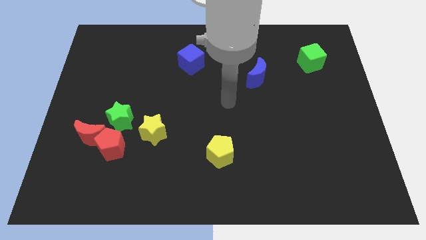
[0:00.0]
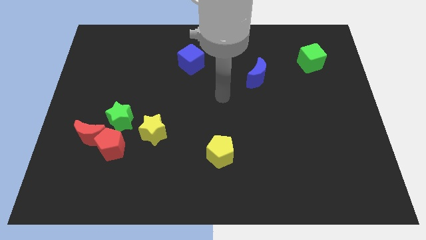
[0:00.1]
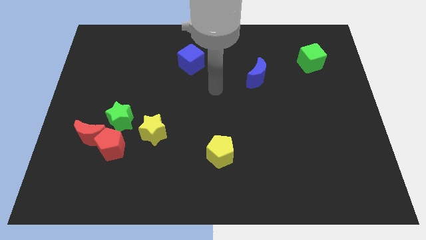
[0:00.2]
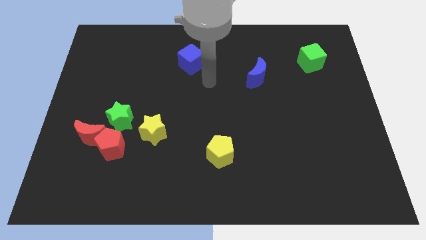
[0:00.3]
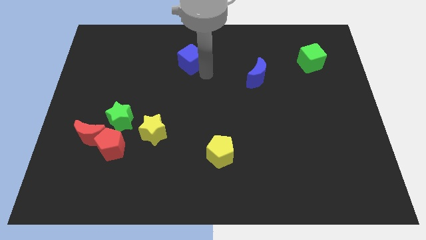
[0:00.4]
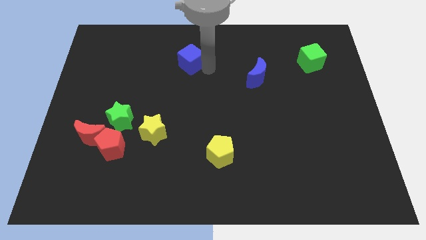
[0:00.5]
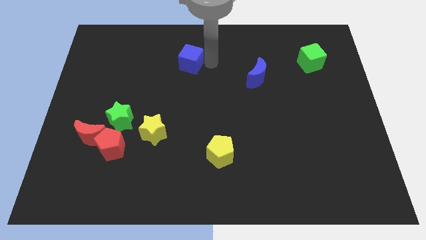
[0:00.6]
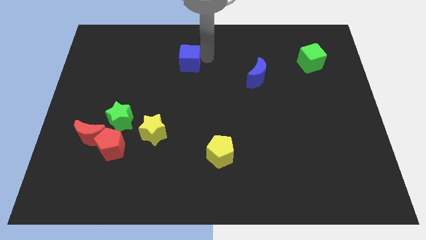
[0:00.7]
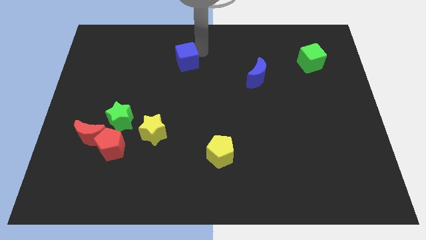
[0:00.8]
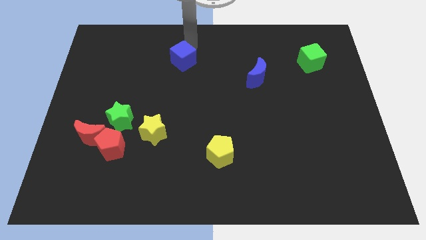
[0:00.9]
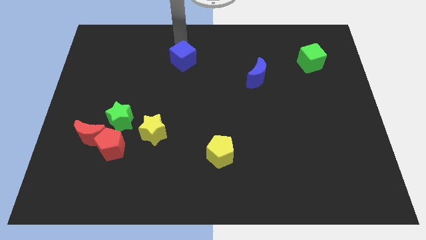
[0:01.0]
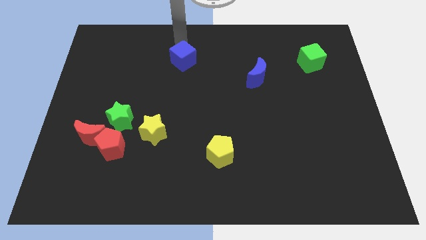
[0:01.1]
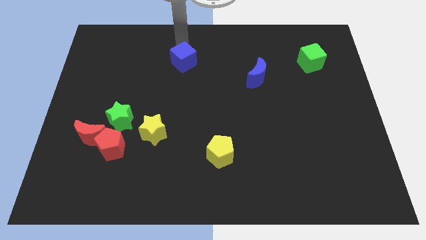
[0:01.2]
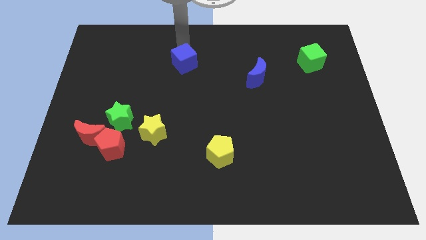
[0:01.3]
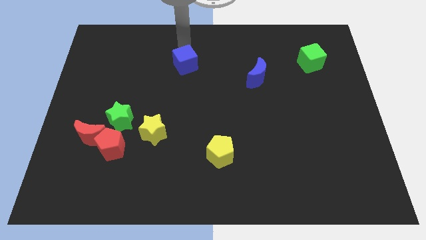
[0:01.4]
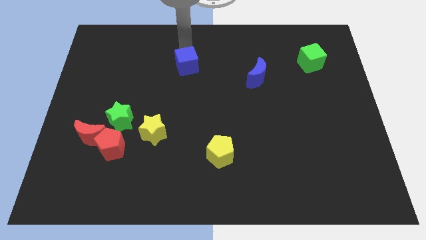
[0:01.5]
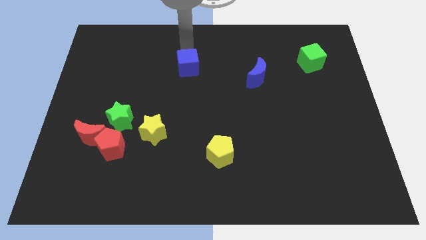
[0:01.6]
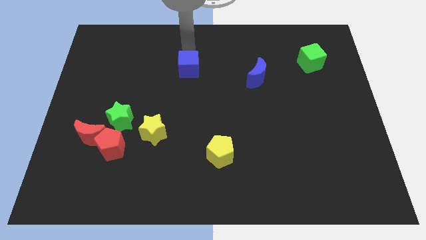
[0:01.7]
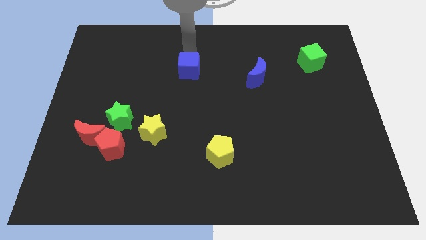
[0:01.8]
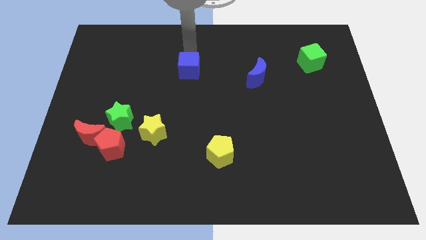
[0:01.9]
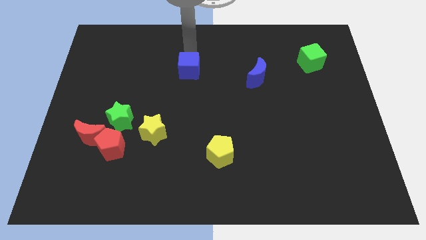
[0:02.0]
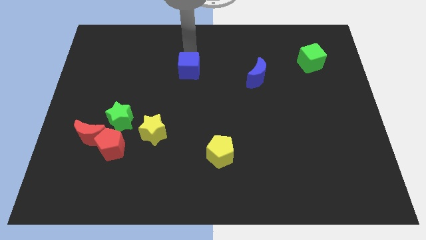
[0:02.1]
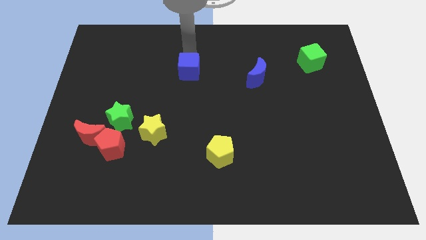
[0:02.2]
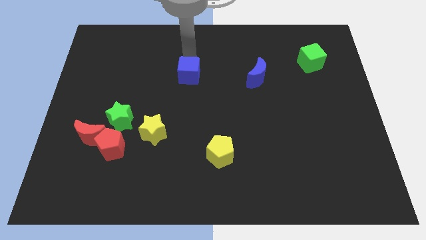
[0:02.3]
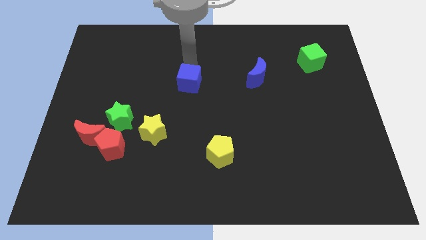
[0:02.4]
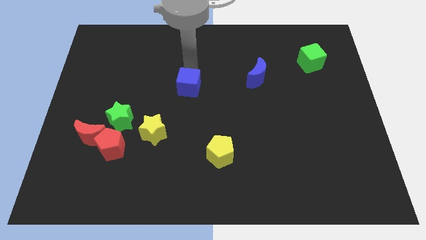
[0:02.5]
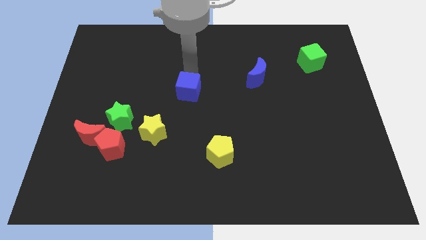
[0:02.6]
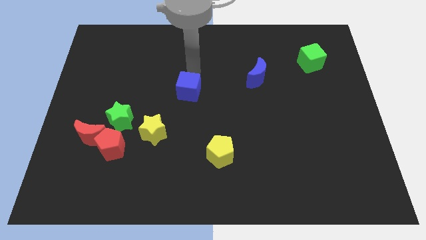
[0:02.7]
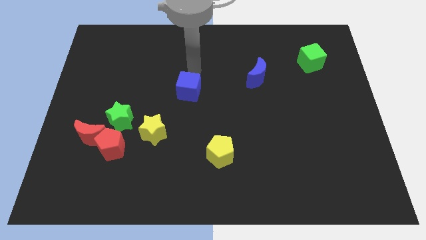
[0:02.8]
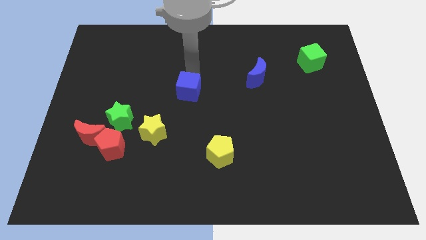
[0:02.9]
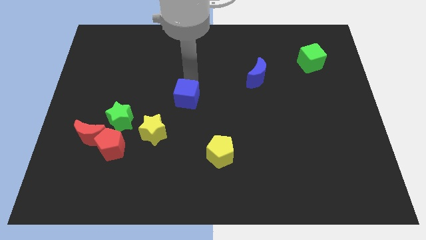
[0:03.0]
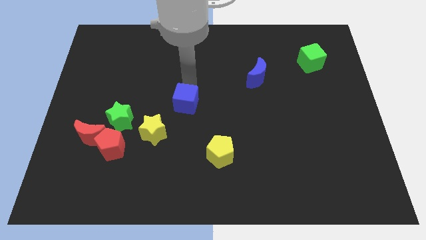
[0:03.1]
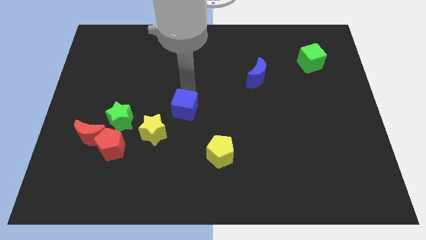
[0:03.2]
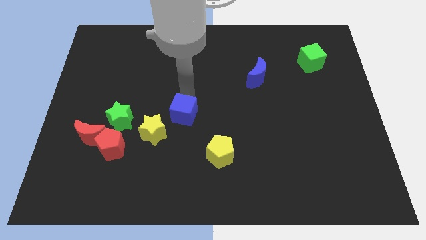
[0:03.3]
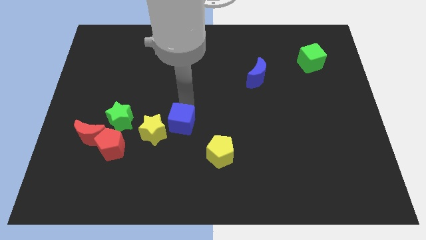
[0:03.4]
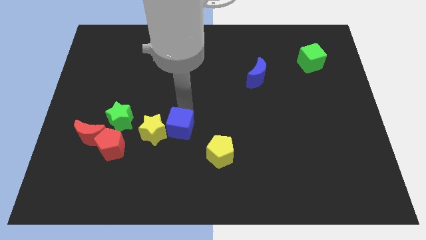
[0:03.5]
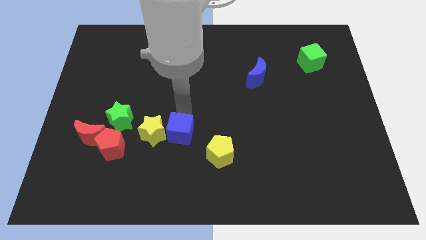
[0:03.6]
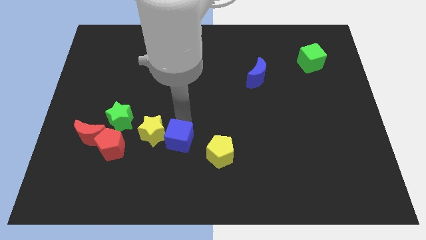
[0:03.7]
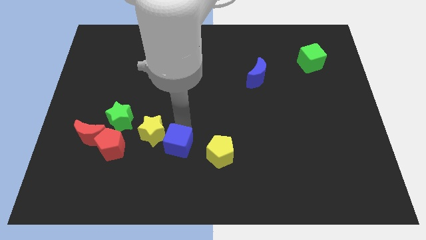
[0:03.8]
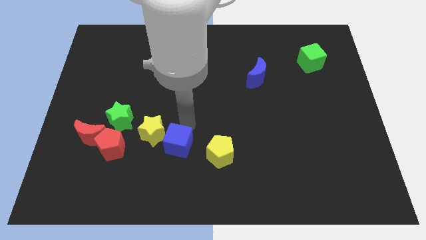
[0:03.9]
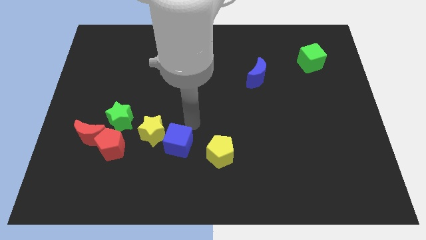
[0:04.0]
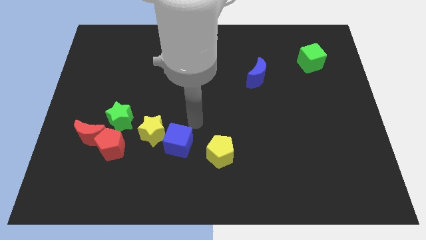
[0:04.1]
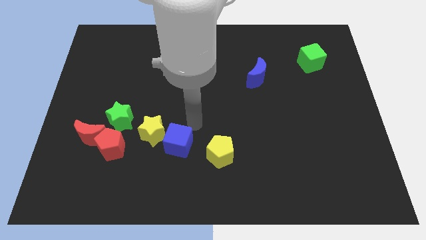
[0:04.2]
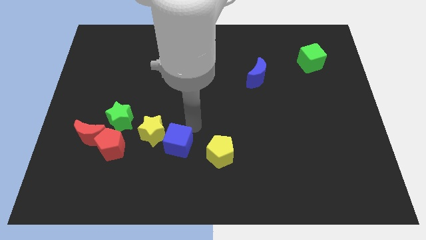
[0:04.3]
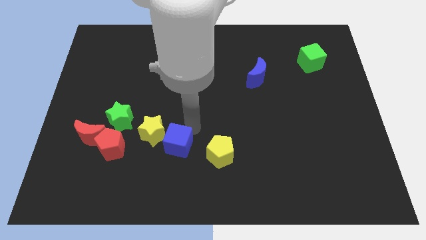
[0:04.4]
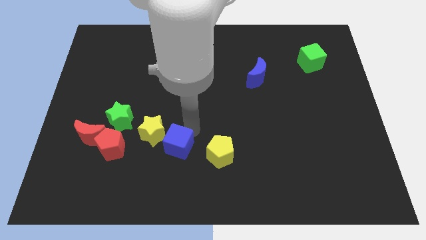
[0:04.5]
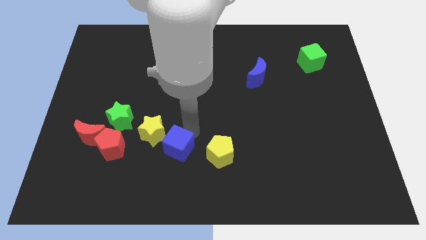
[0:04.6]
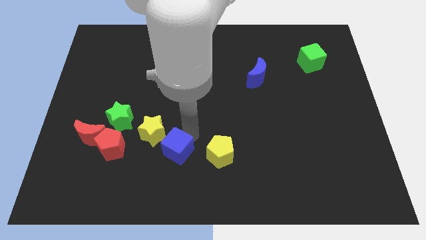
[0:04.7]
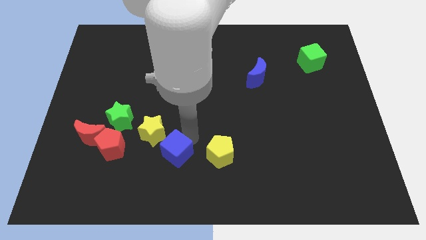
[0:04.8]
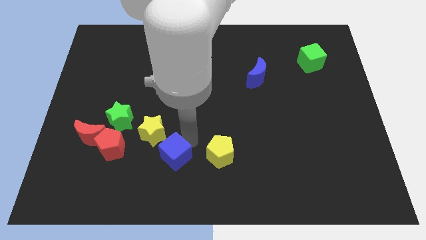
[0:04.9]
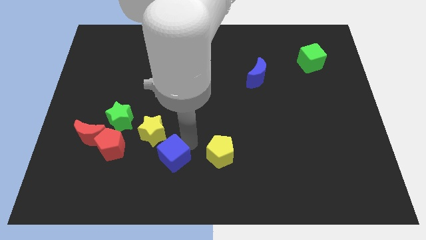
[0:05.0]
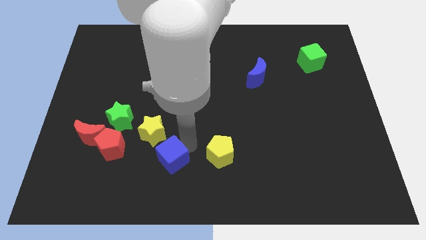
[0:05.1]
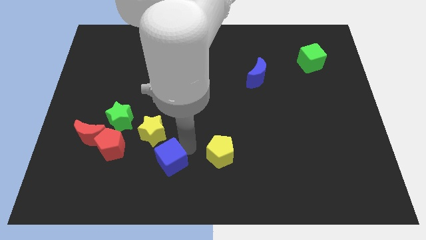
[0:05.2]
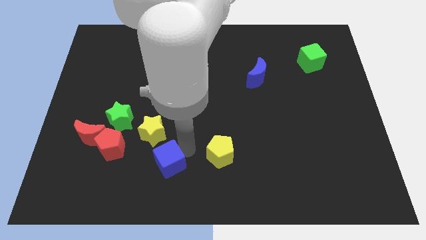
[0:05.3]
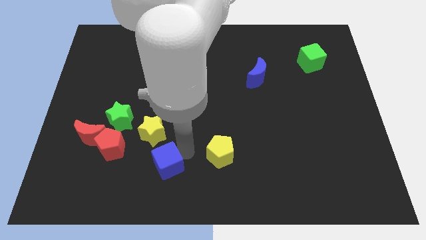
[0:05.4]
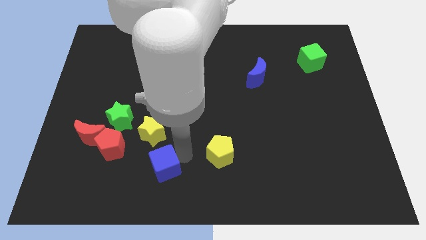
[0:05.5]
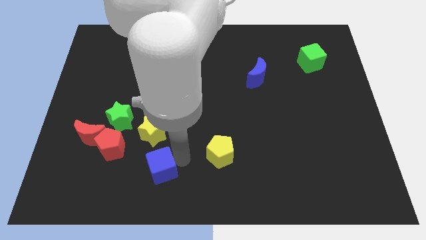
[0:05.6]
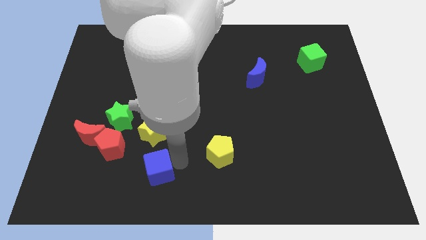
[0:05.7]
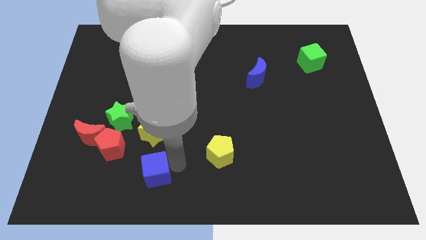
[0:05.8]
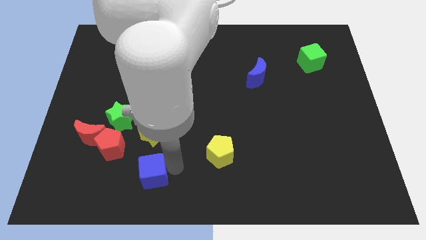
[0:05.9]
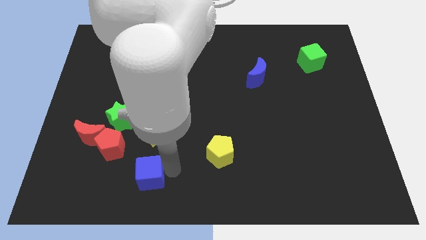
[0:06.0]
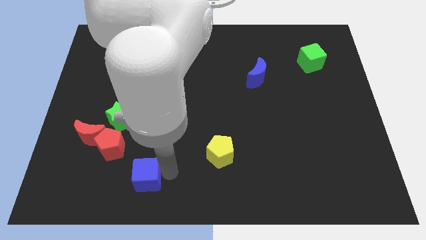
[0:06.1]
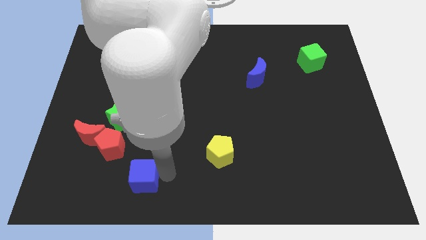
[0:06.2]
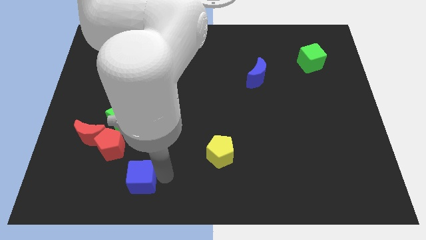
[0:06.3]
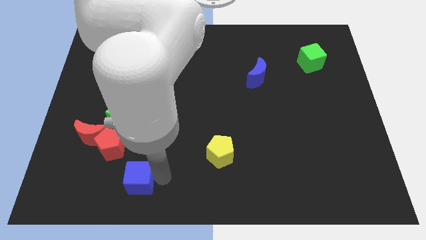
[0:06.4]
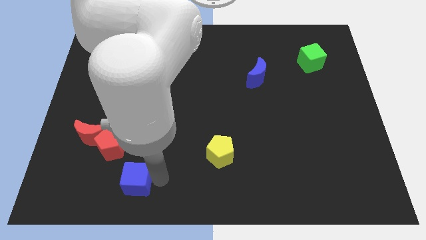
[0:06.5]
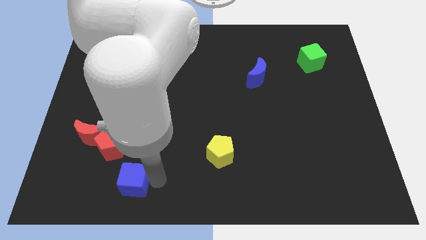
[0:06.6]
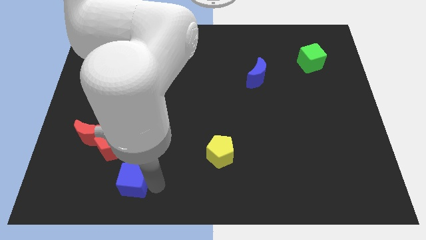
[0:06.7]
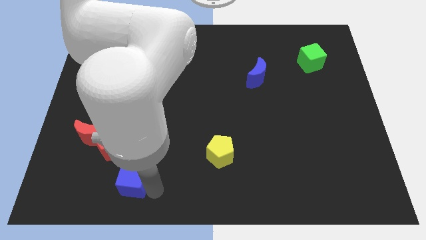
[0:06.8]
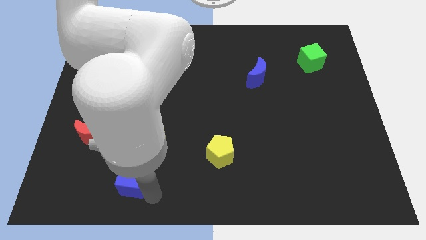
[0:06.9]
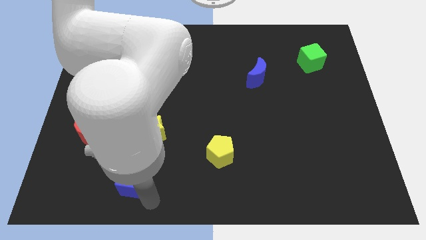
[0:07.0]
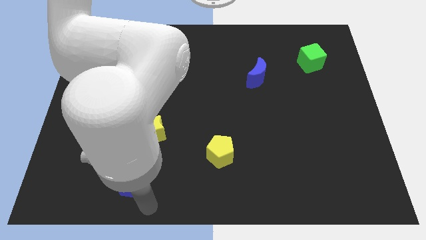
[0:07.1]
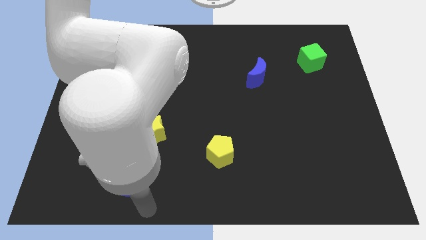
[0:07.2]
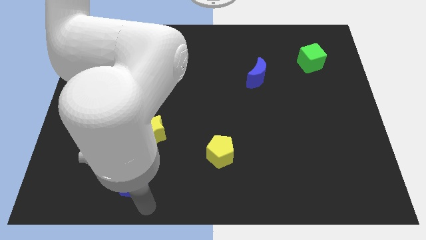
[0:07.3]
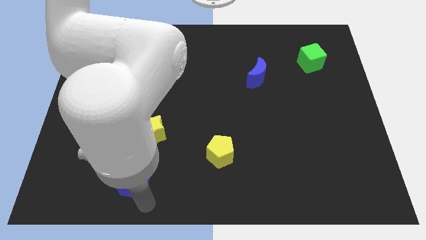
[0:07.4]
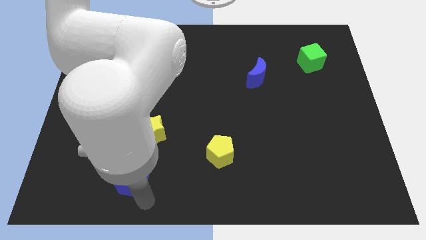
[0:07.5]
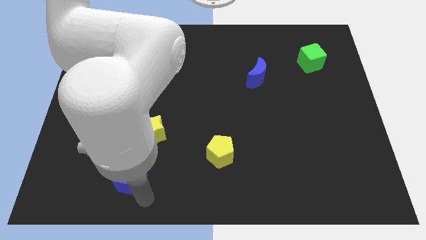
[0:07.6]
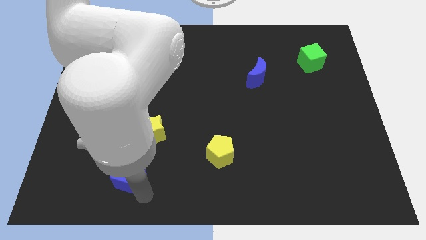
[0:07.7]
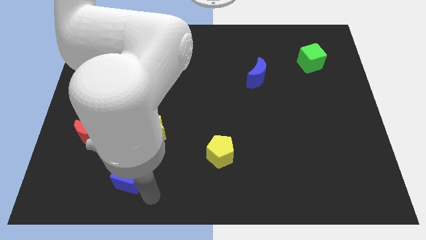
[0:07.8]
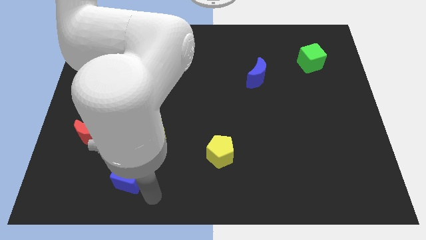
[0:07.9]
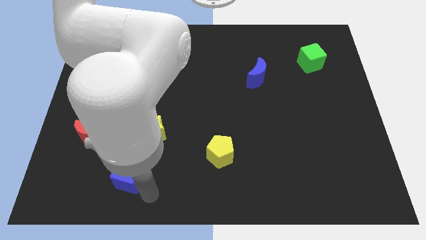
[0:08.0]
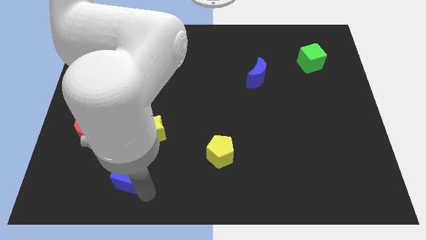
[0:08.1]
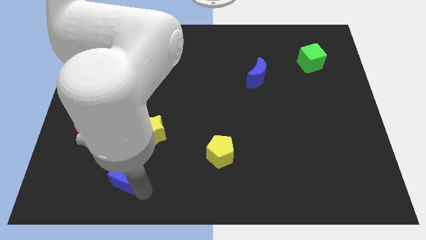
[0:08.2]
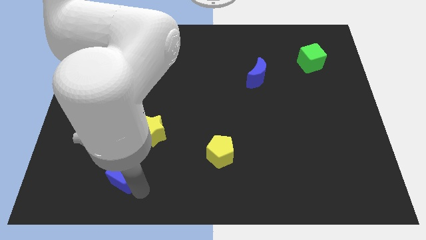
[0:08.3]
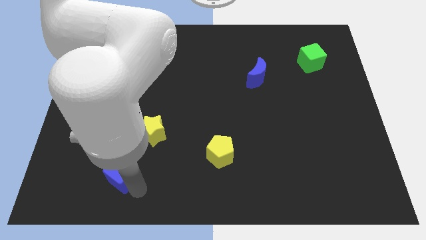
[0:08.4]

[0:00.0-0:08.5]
put the blue cube to the bottom left of the yellow star
